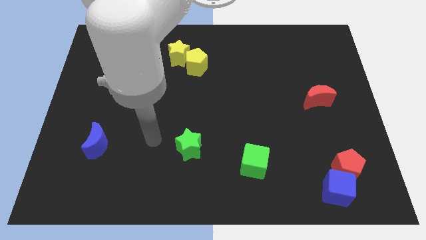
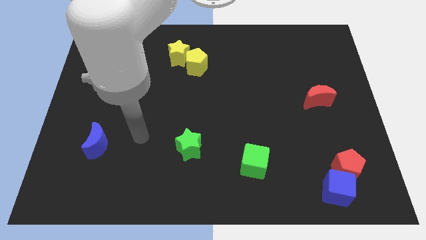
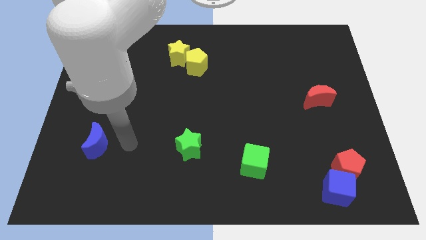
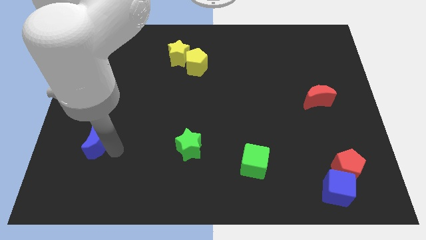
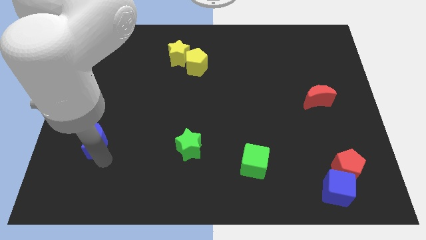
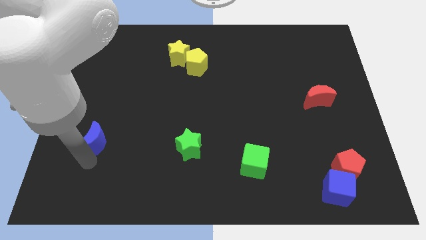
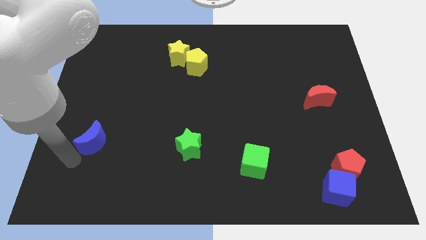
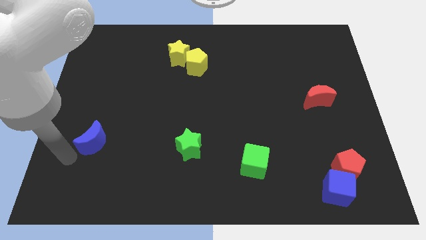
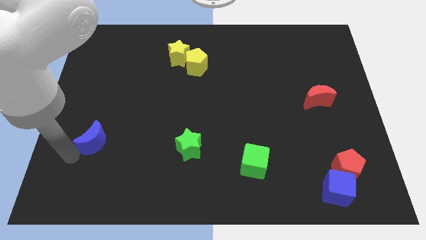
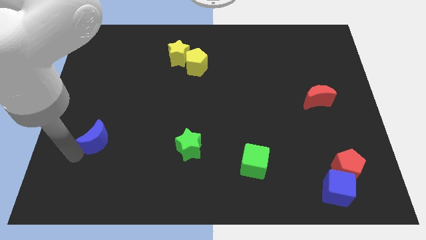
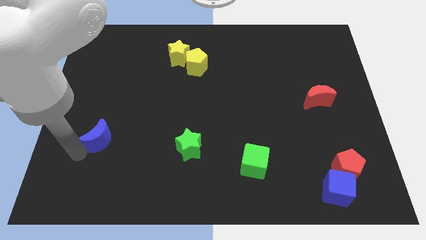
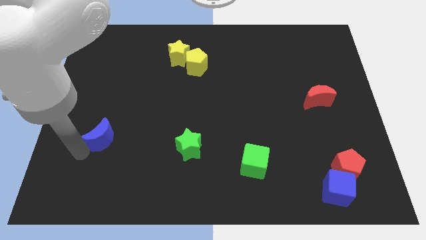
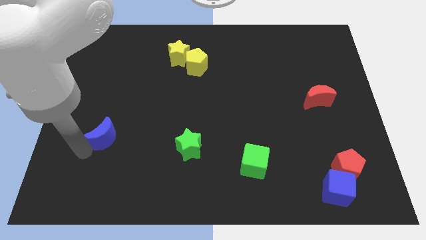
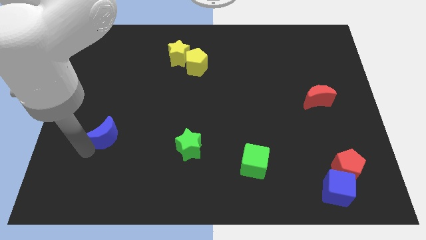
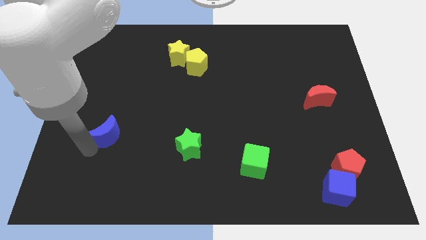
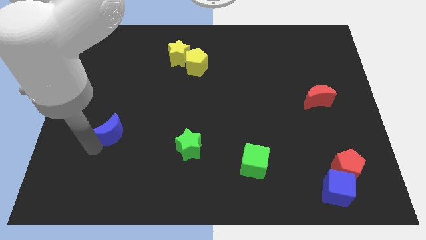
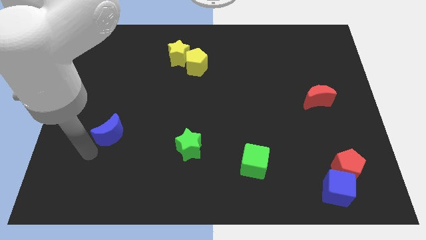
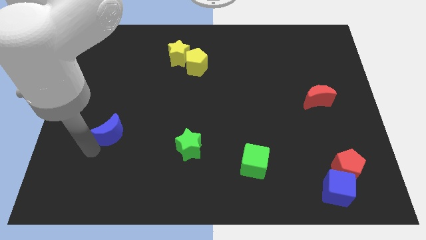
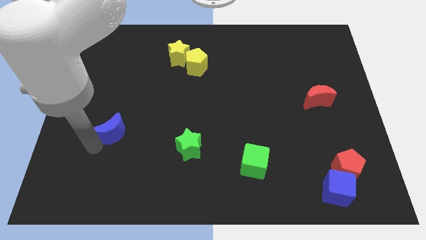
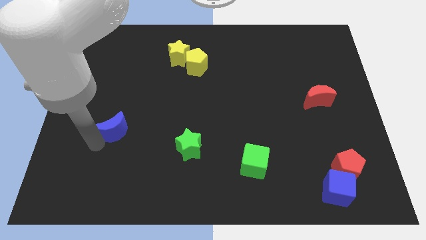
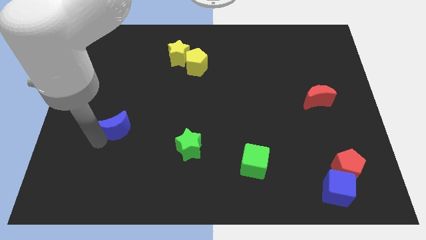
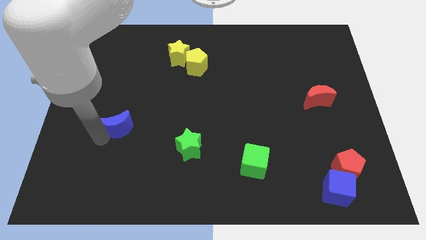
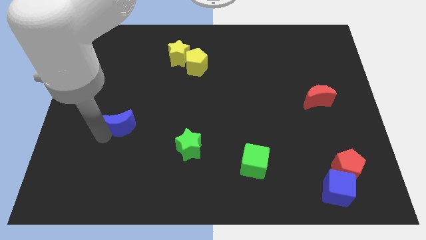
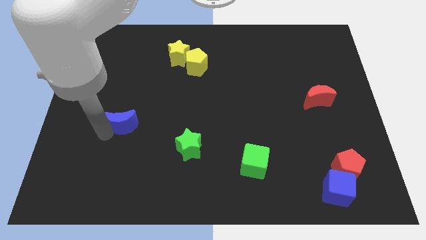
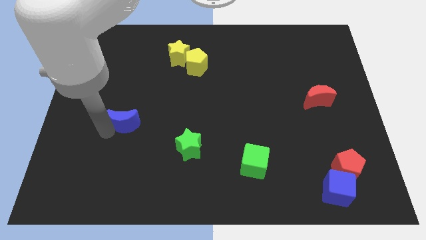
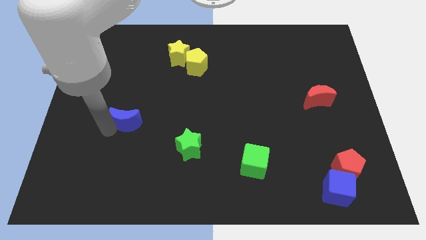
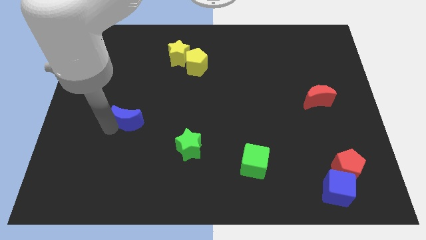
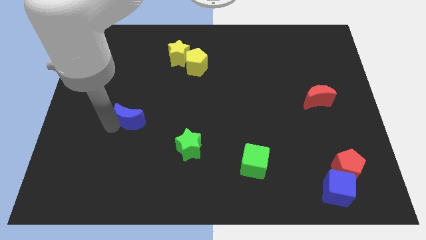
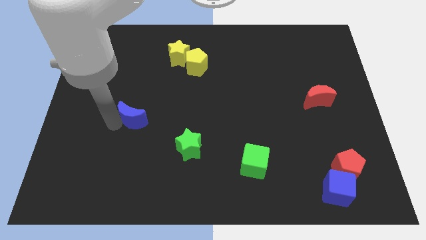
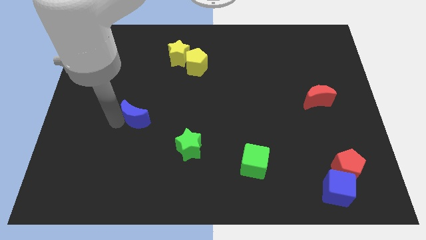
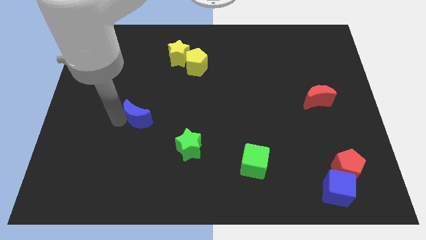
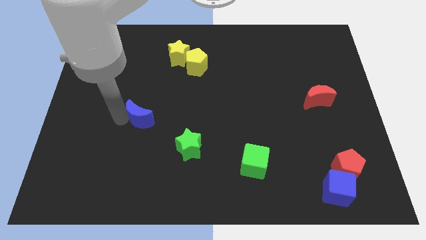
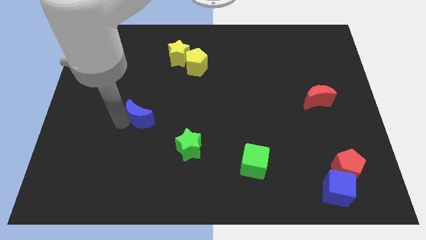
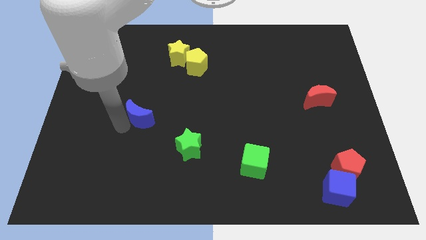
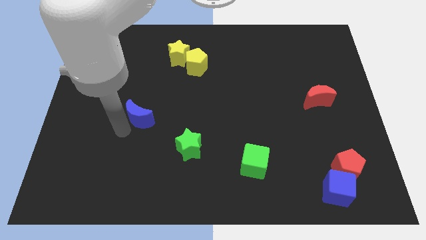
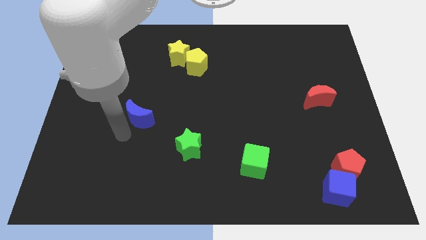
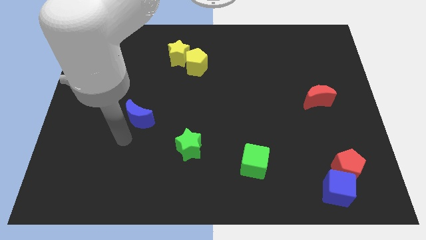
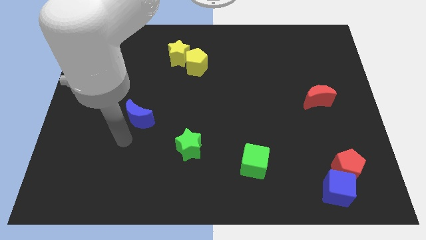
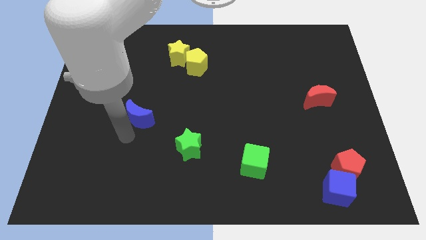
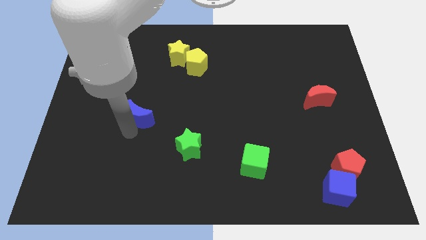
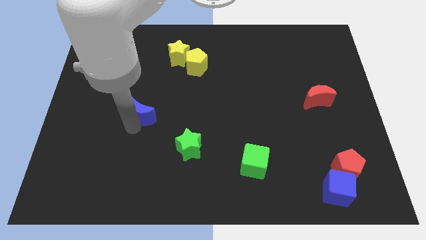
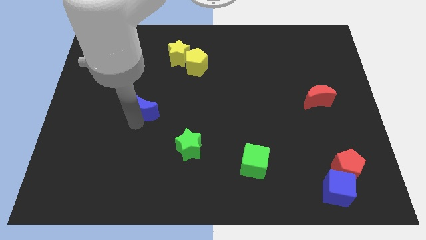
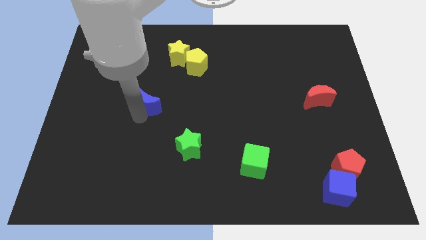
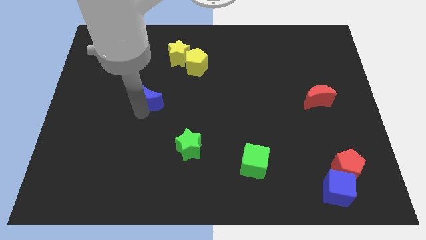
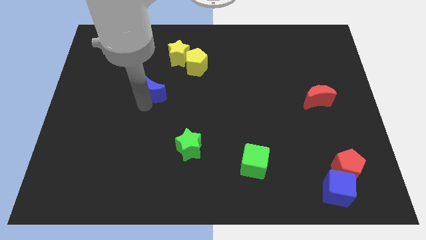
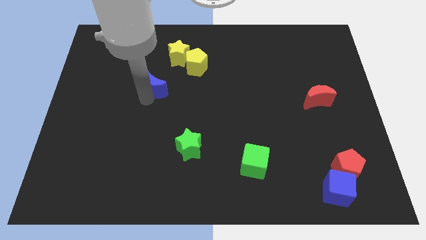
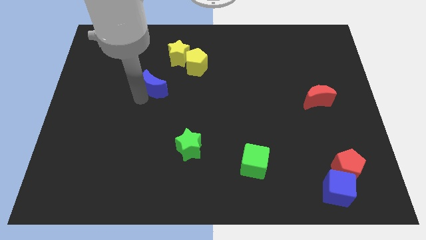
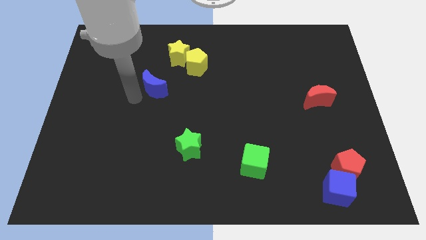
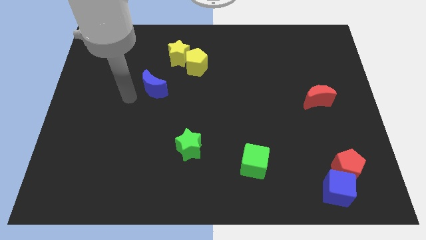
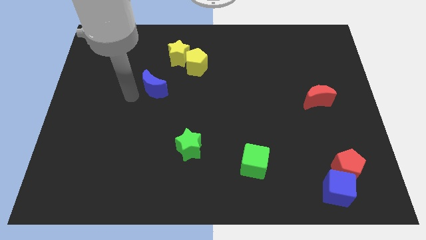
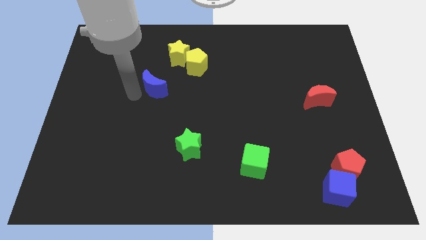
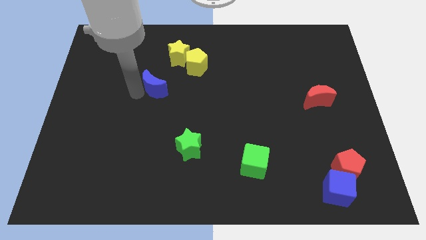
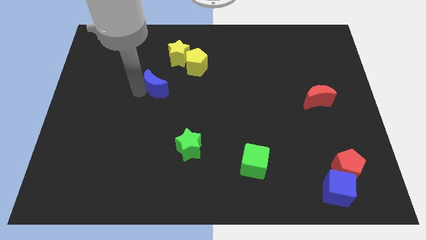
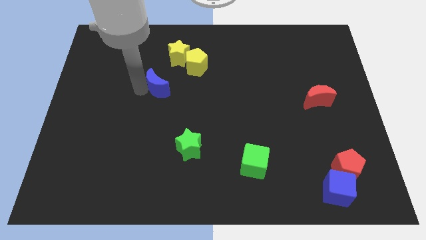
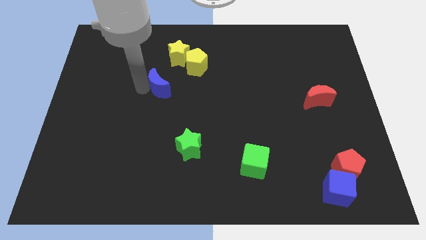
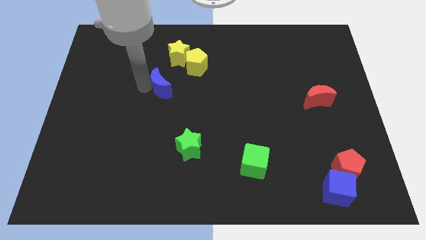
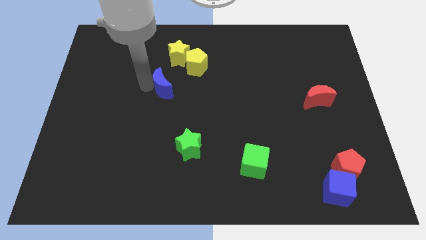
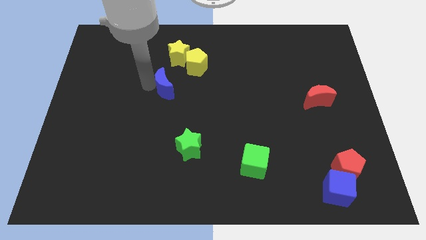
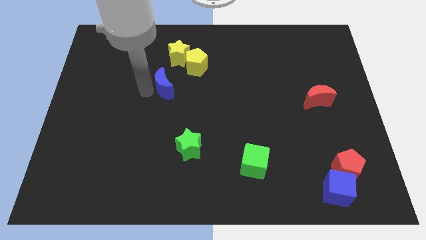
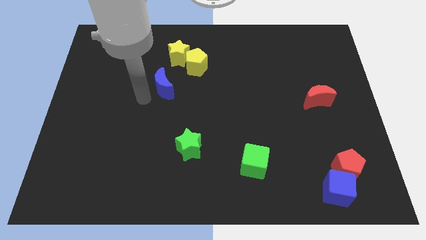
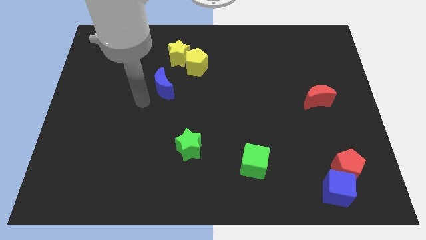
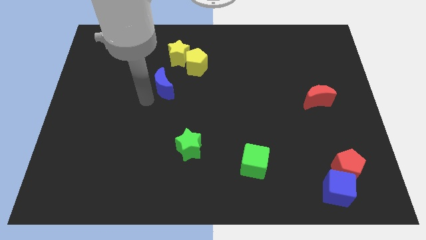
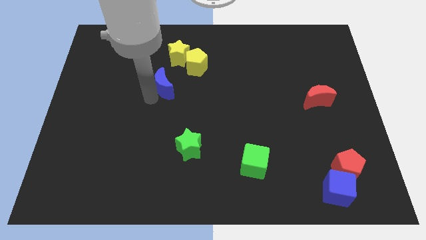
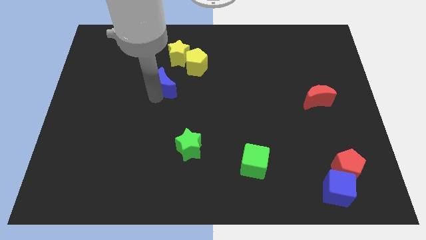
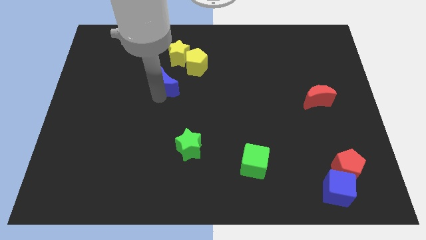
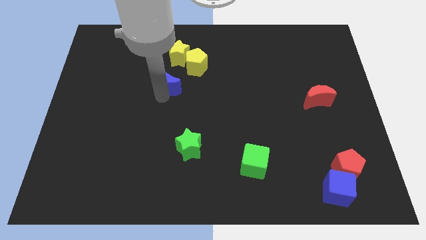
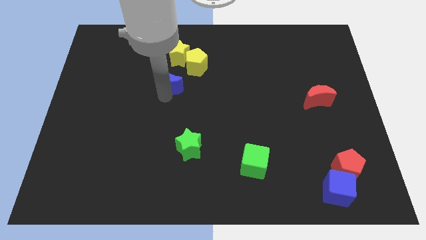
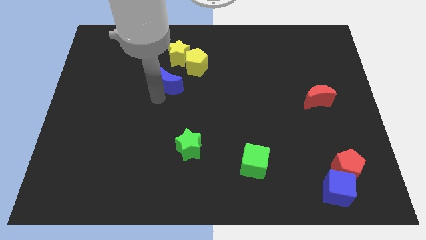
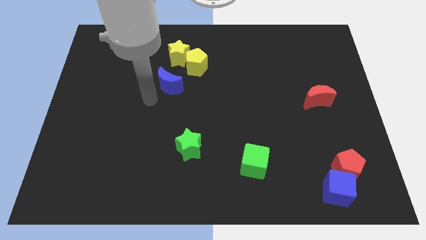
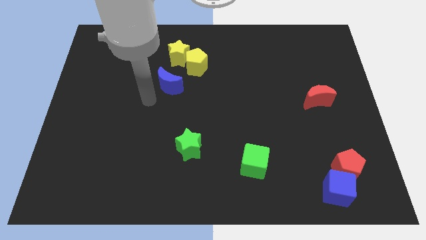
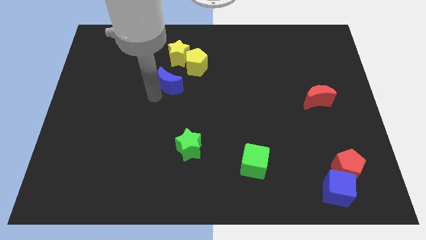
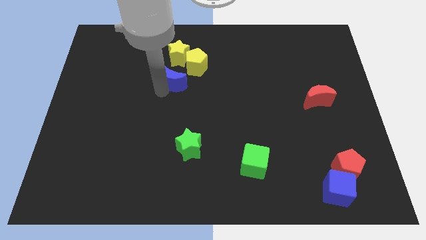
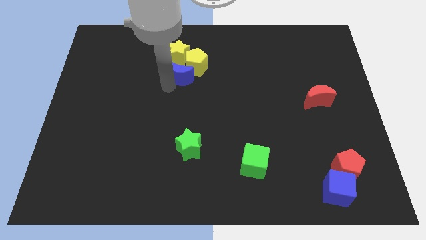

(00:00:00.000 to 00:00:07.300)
push the blue moon close to the yellow pentagon
